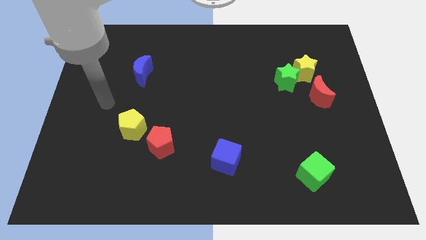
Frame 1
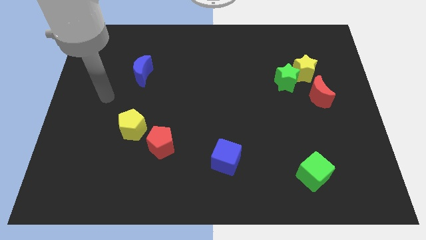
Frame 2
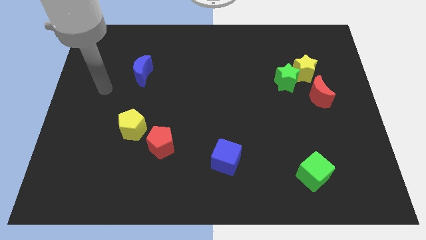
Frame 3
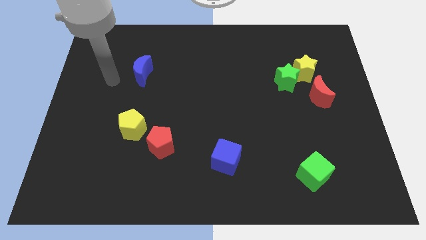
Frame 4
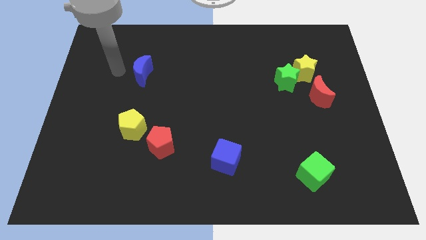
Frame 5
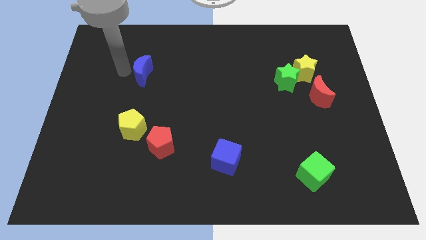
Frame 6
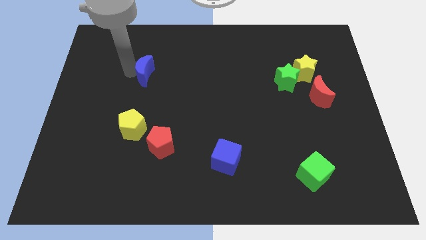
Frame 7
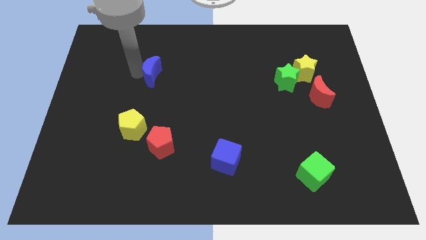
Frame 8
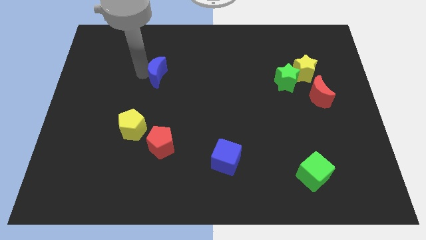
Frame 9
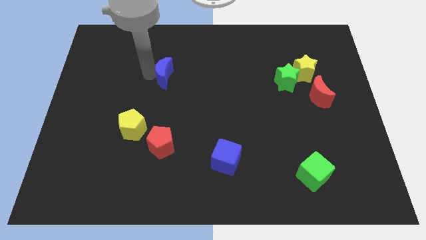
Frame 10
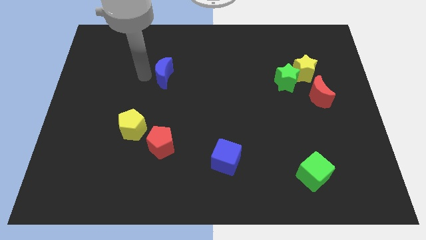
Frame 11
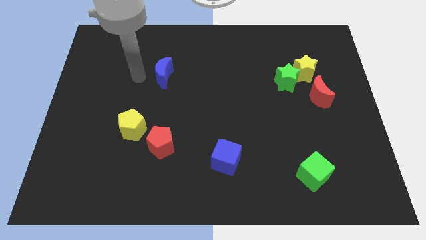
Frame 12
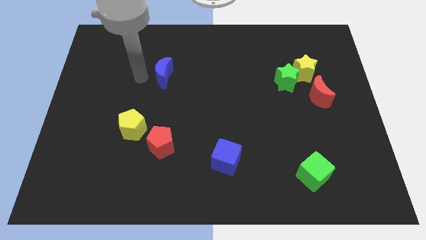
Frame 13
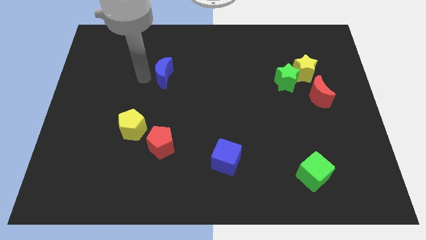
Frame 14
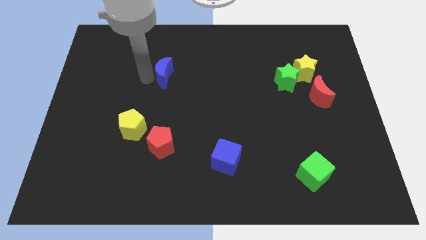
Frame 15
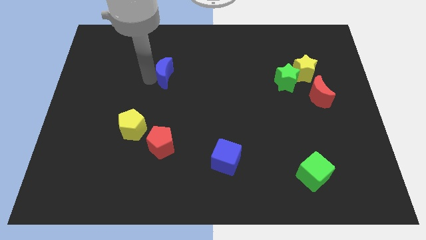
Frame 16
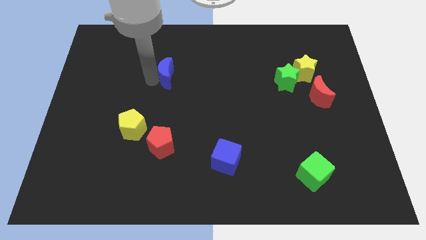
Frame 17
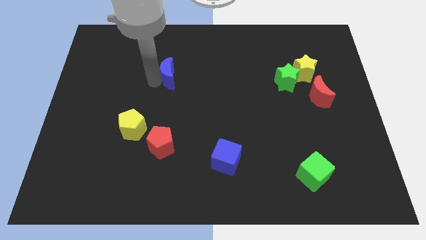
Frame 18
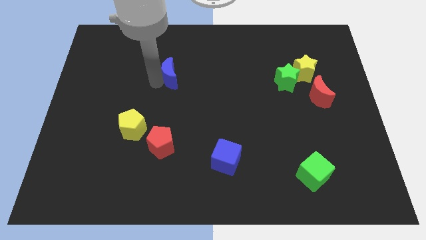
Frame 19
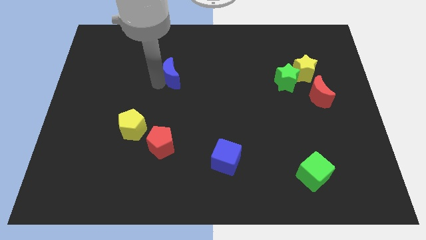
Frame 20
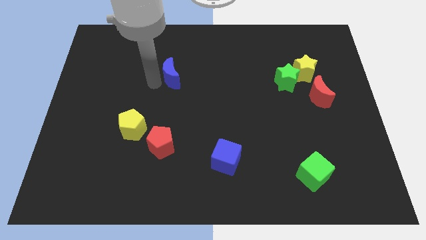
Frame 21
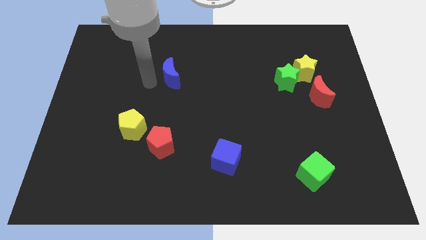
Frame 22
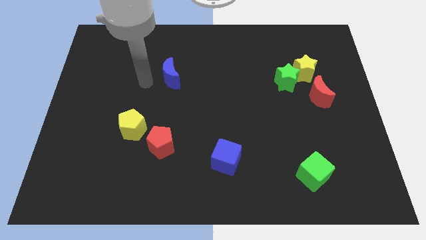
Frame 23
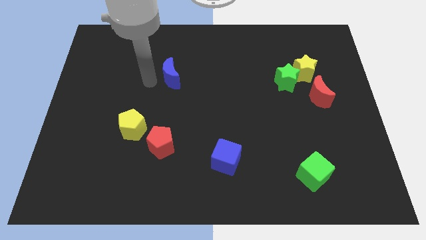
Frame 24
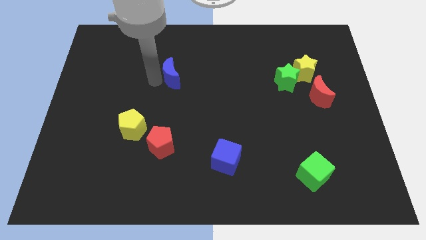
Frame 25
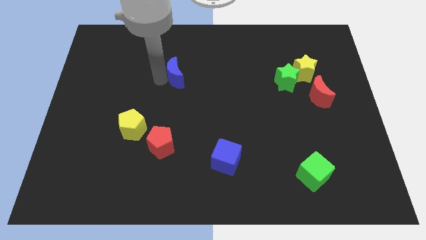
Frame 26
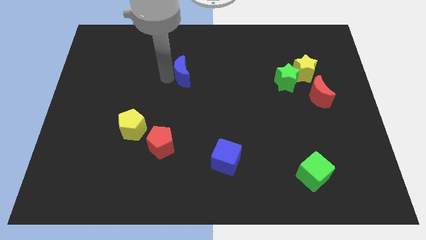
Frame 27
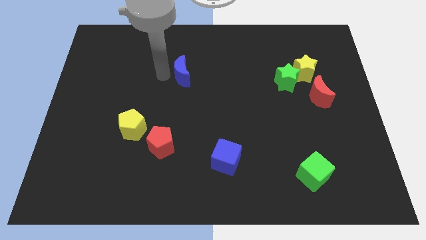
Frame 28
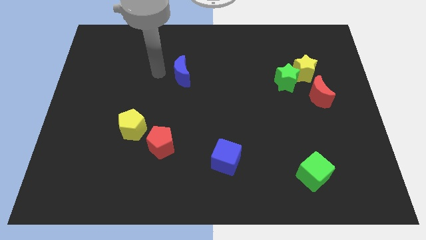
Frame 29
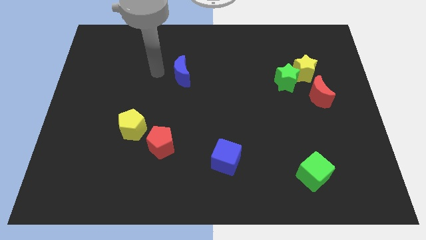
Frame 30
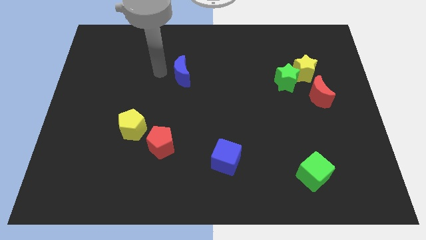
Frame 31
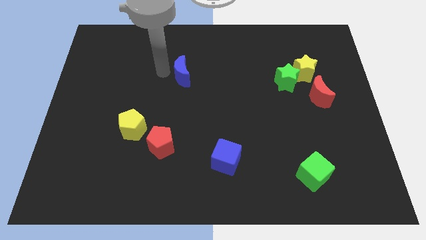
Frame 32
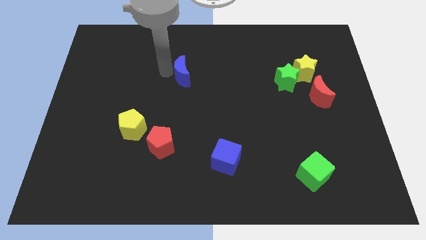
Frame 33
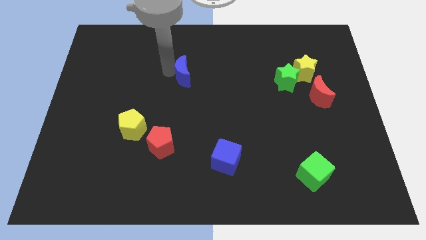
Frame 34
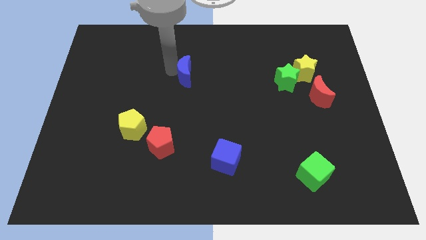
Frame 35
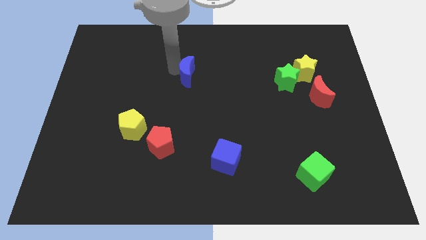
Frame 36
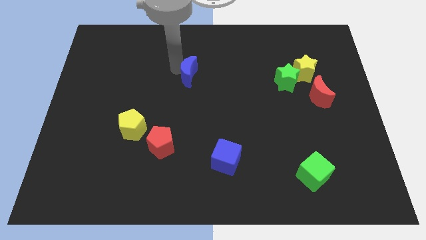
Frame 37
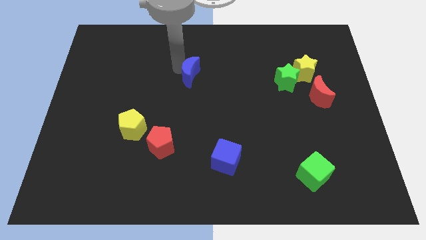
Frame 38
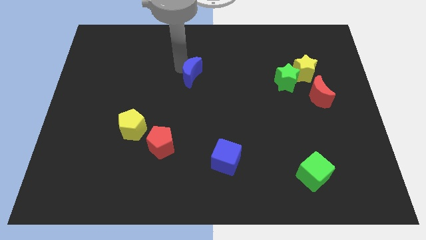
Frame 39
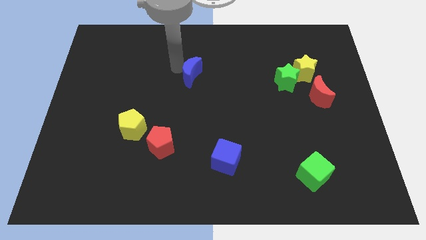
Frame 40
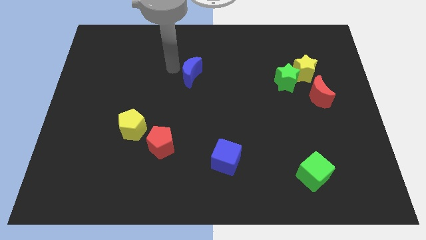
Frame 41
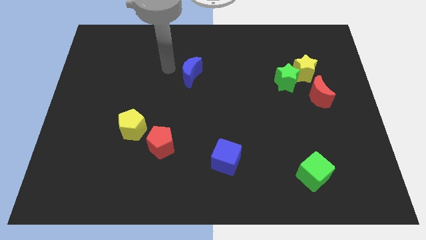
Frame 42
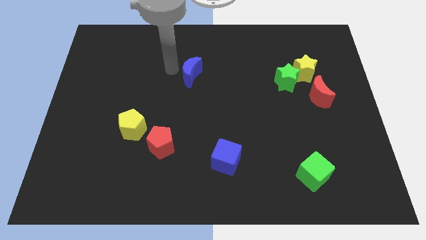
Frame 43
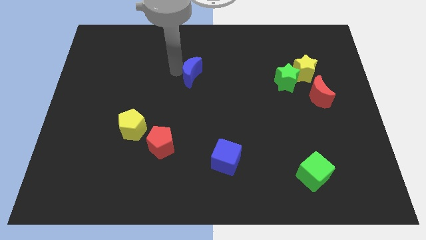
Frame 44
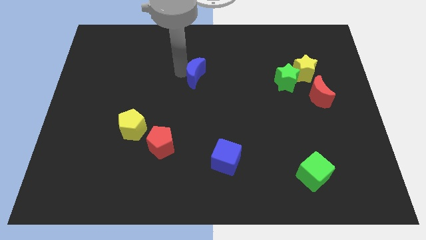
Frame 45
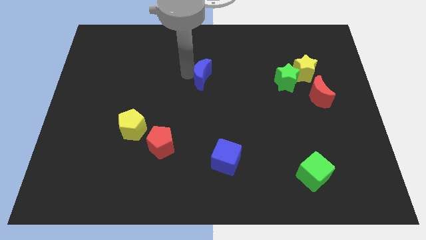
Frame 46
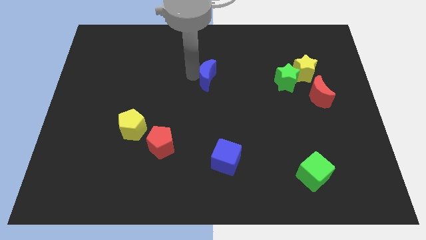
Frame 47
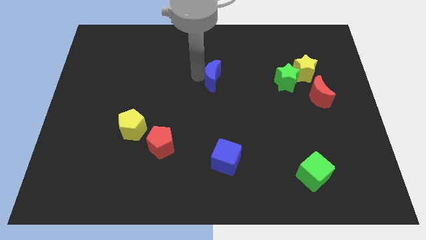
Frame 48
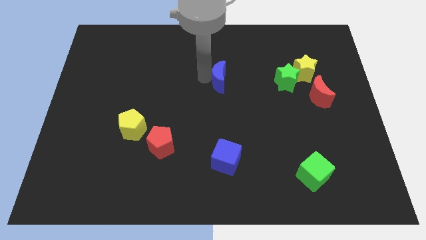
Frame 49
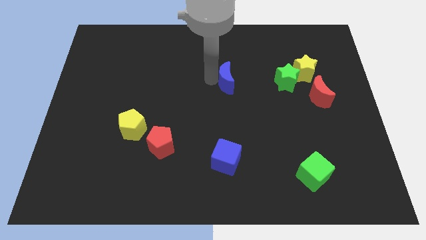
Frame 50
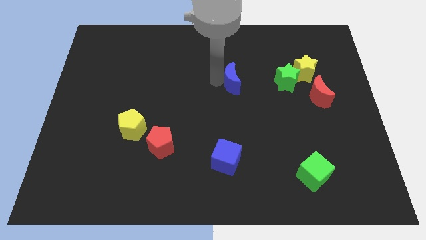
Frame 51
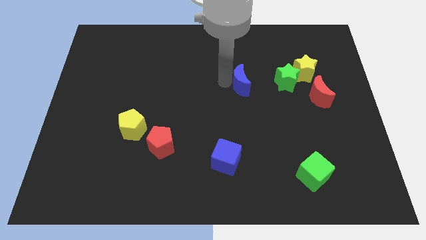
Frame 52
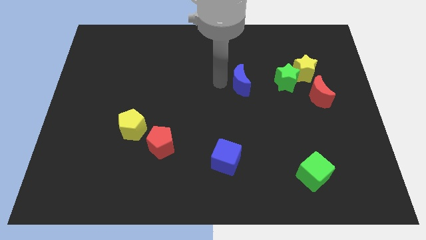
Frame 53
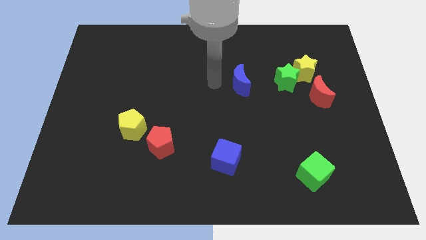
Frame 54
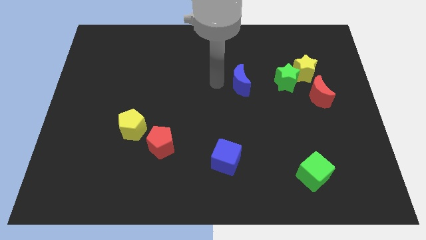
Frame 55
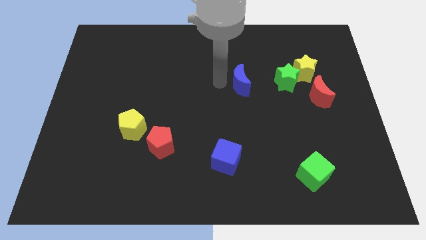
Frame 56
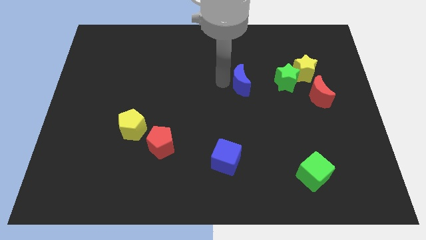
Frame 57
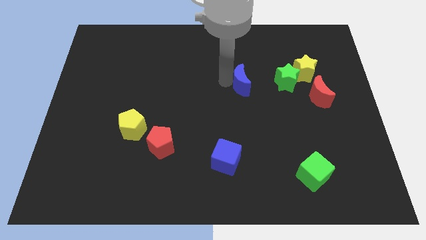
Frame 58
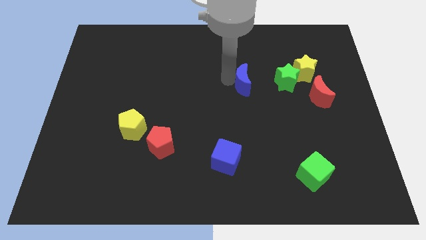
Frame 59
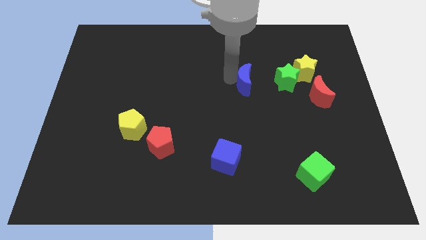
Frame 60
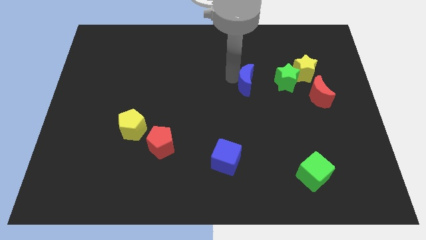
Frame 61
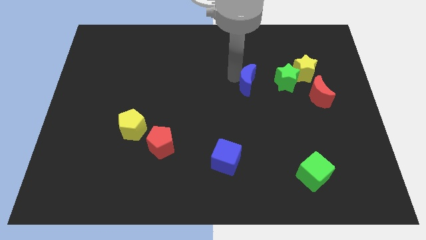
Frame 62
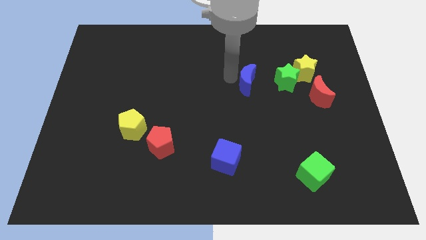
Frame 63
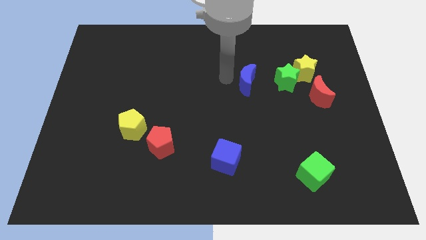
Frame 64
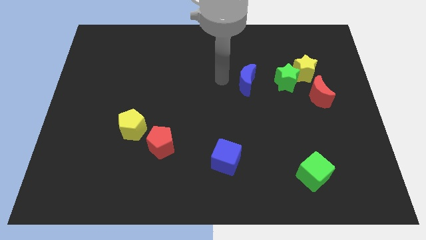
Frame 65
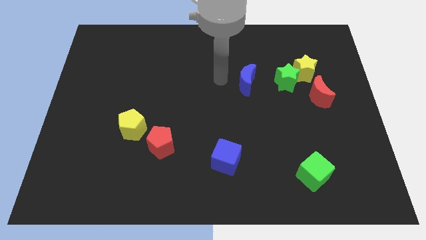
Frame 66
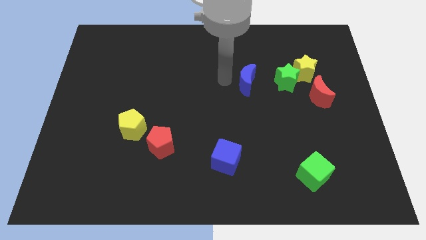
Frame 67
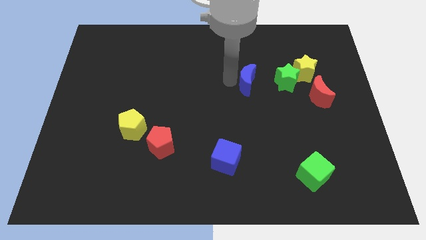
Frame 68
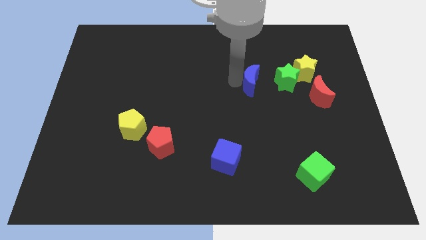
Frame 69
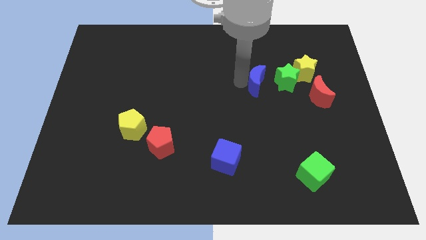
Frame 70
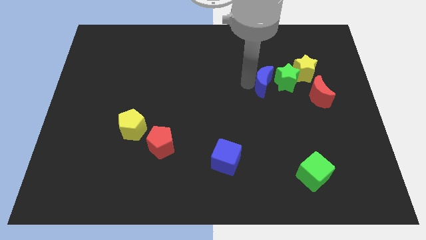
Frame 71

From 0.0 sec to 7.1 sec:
push the blue moon close to the green star

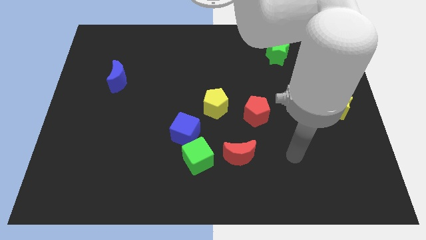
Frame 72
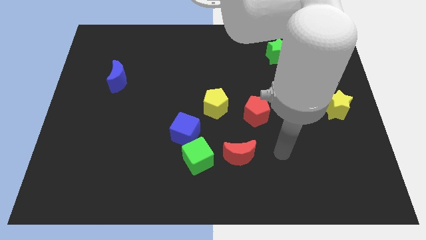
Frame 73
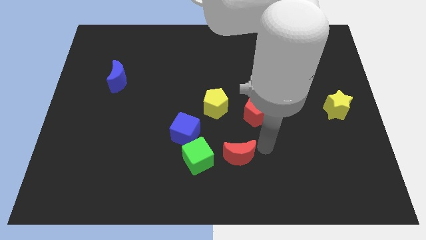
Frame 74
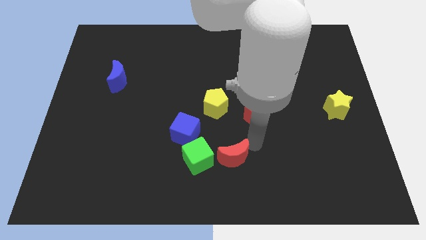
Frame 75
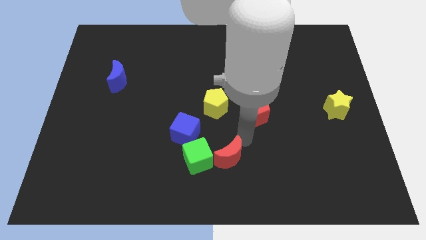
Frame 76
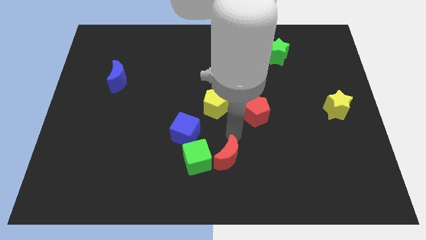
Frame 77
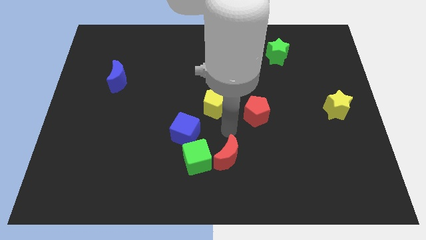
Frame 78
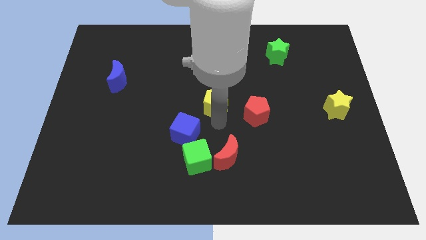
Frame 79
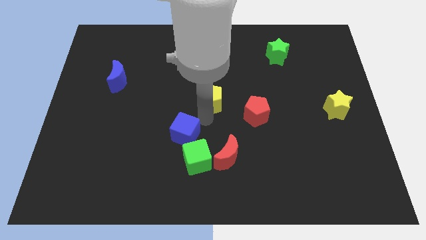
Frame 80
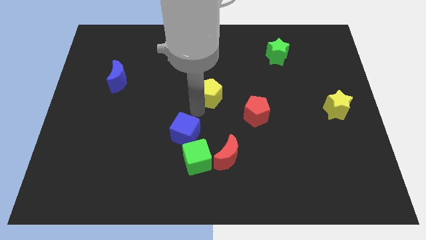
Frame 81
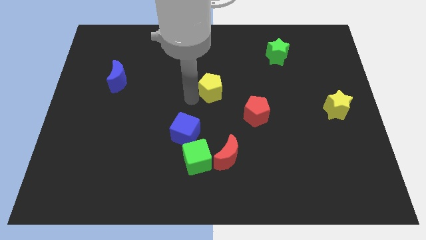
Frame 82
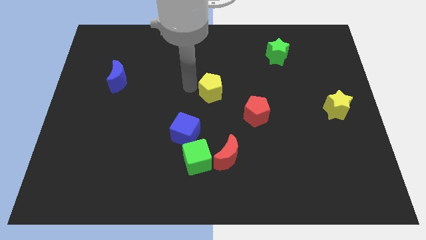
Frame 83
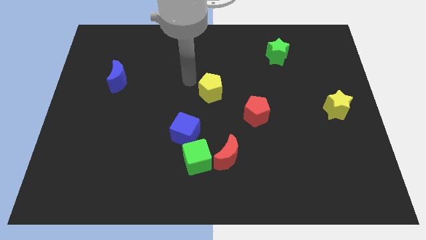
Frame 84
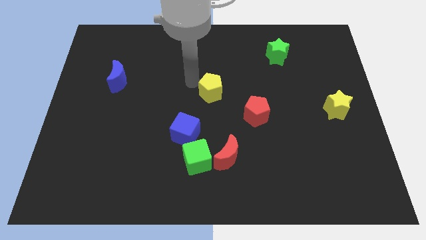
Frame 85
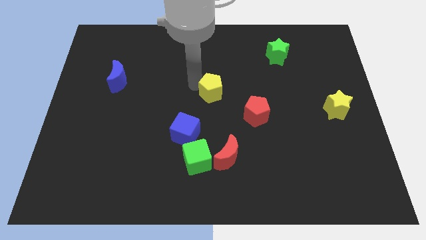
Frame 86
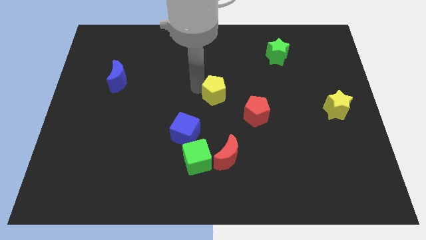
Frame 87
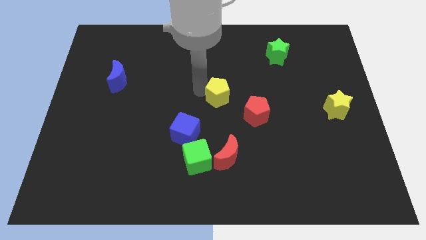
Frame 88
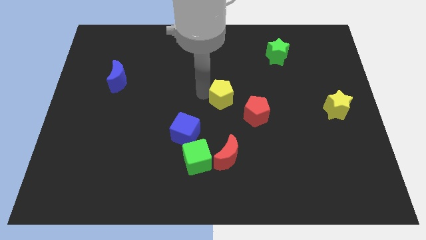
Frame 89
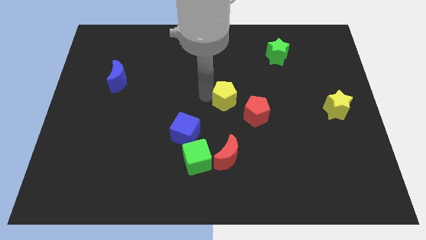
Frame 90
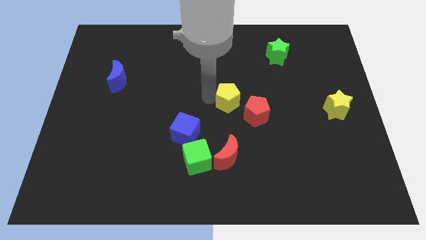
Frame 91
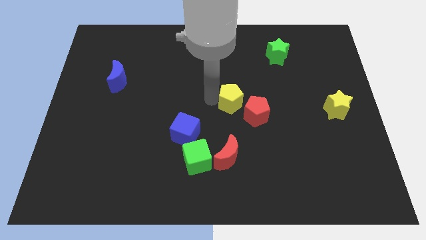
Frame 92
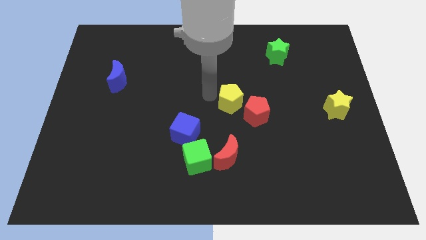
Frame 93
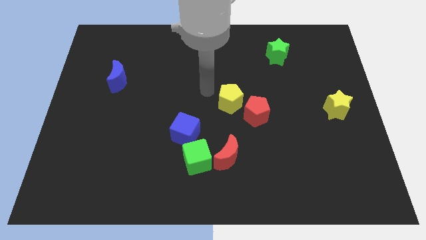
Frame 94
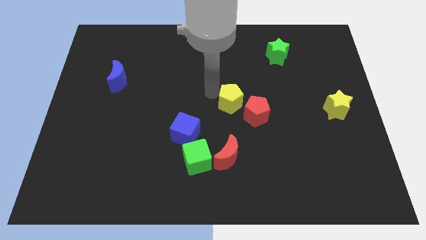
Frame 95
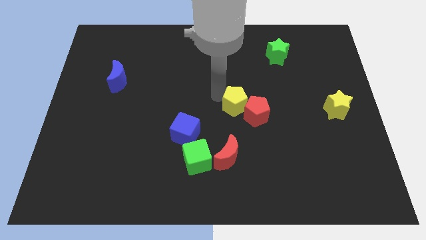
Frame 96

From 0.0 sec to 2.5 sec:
move the yellow pentagon next to the red pentagon
